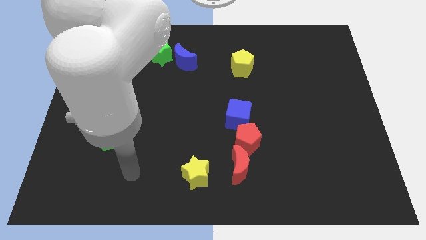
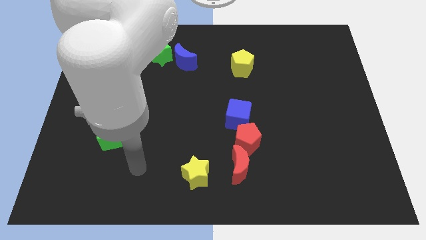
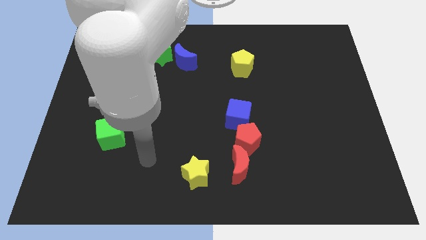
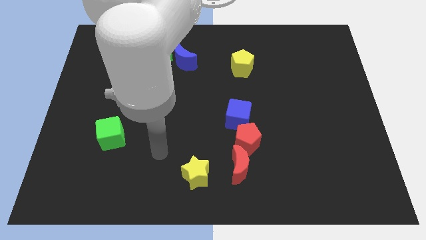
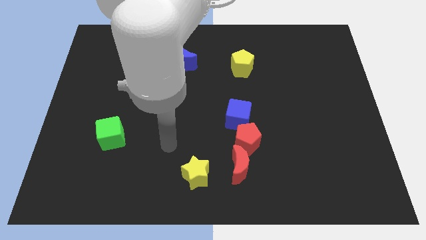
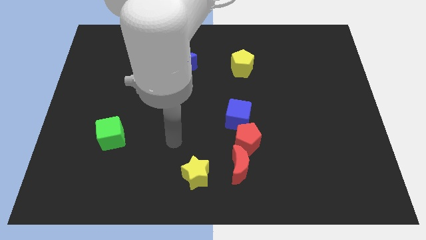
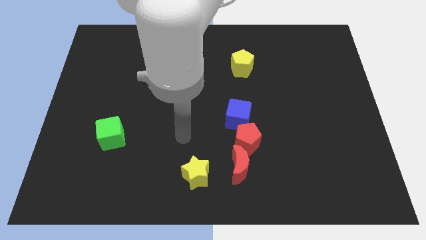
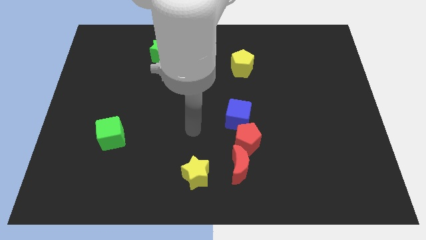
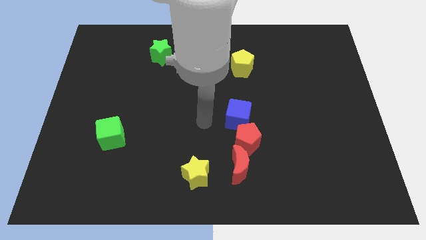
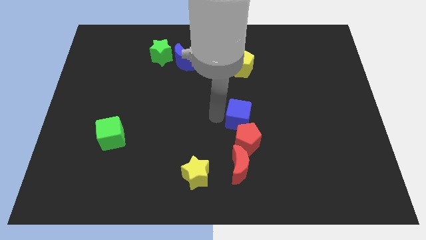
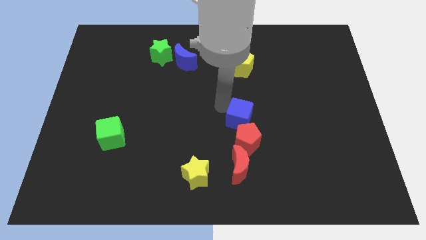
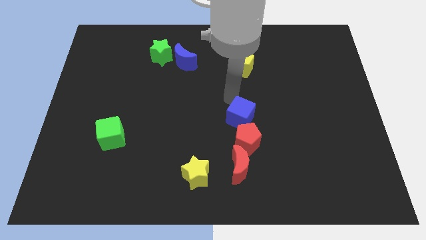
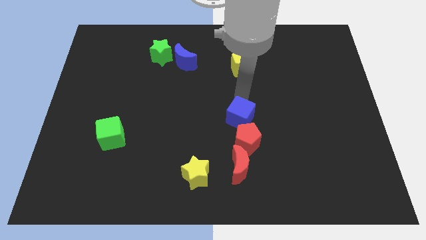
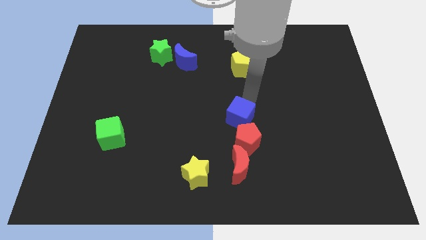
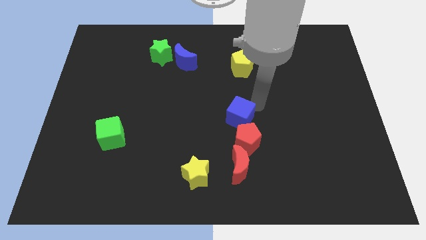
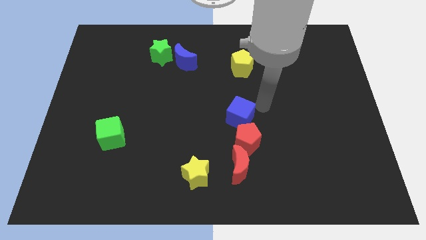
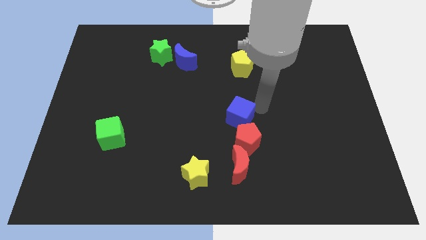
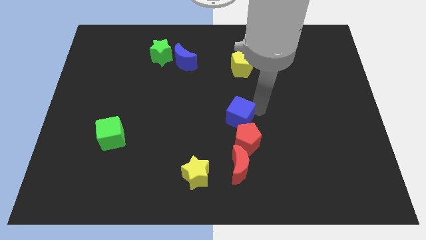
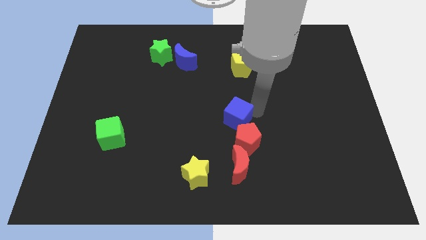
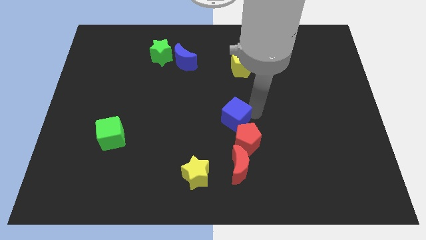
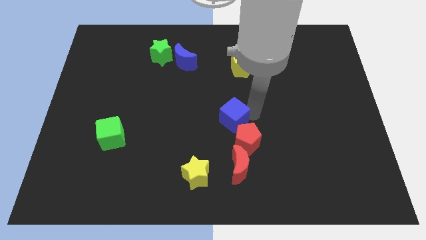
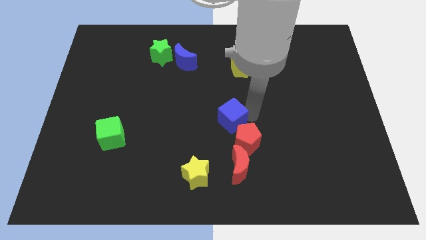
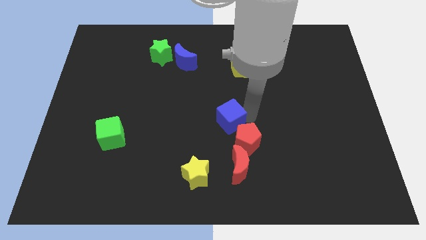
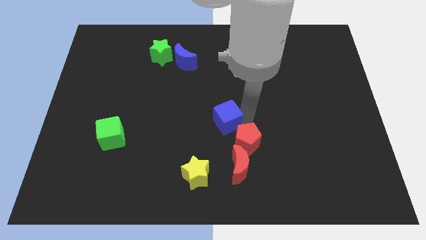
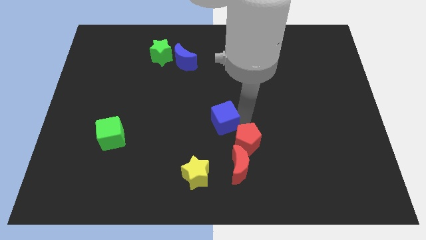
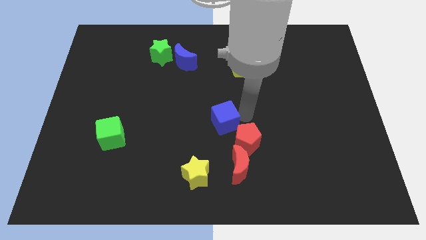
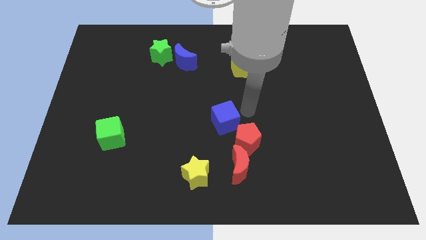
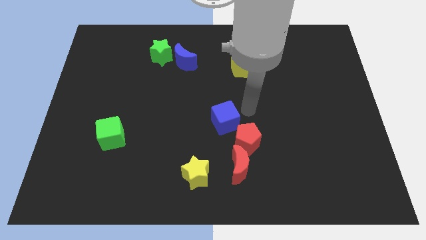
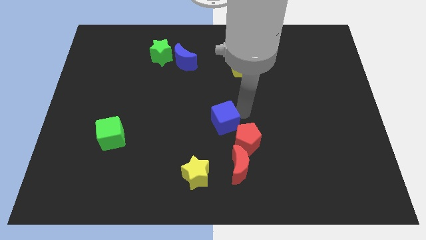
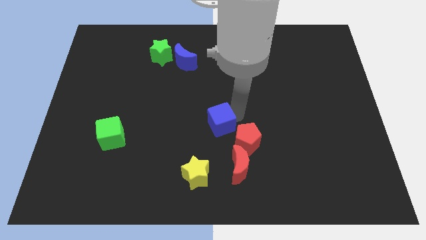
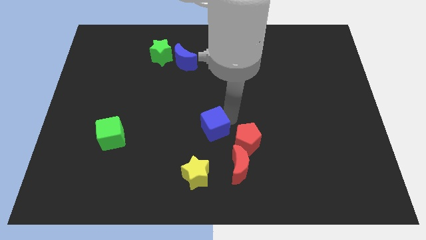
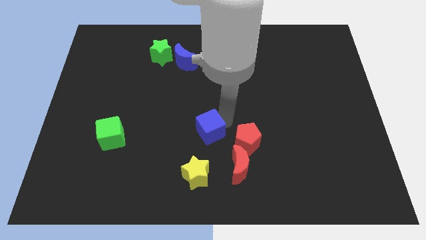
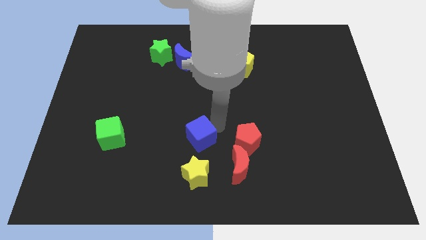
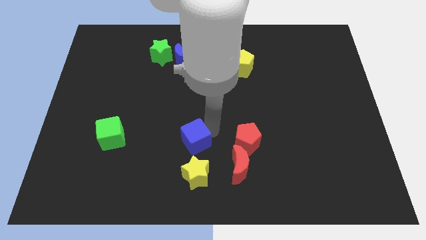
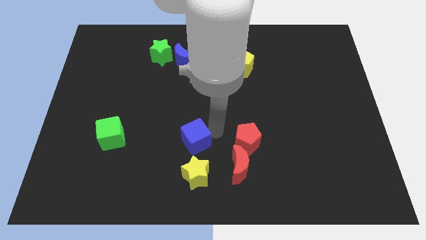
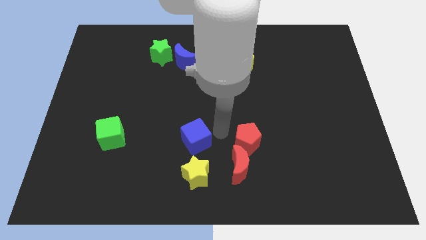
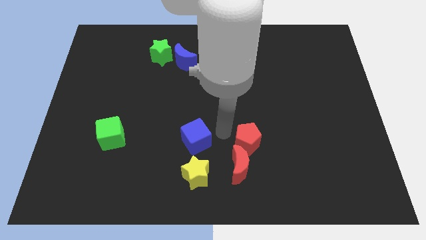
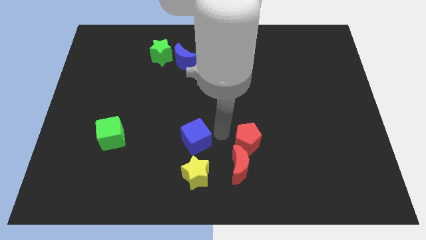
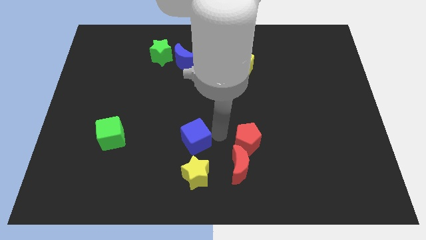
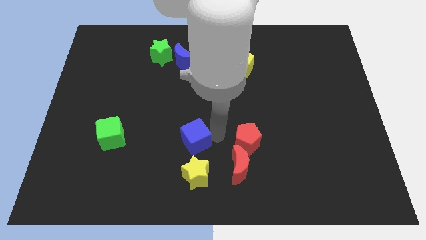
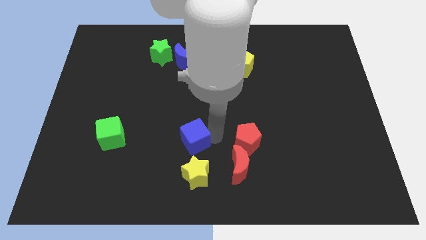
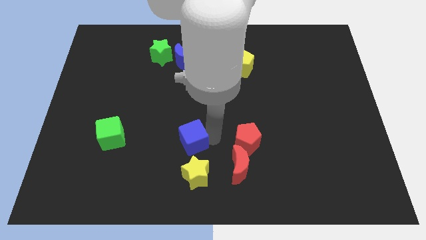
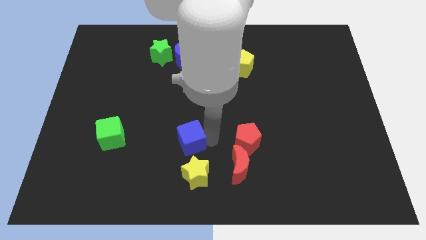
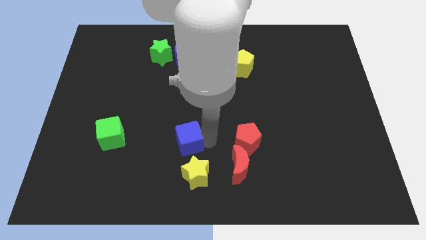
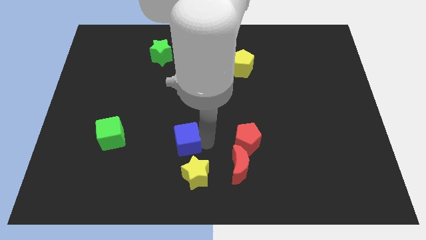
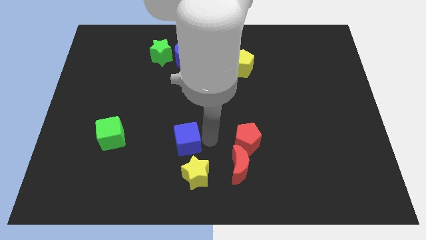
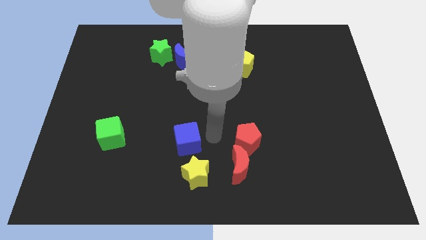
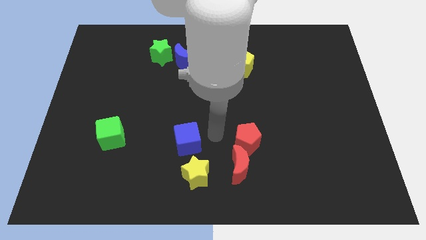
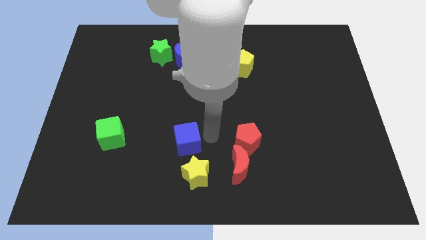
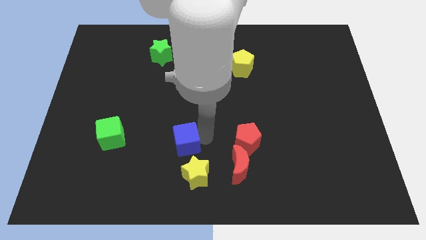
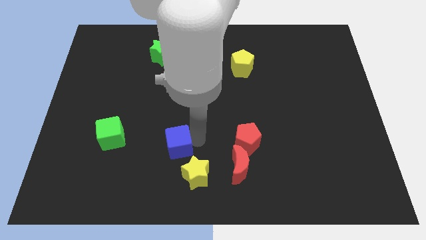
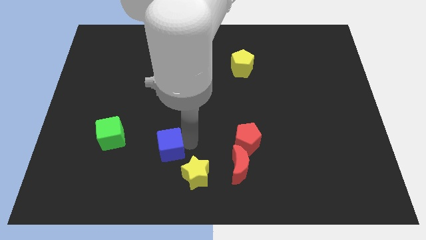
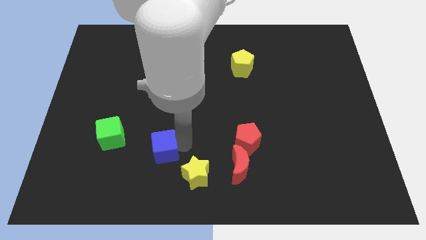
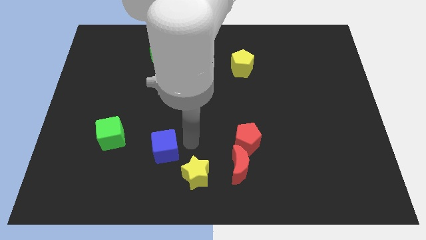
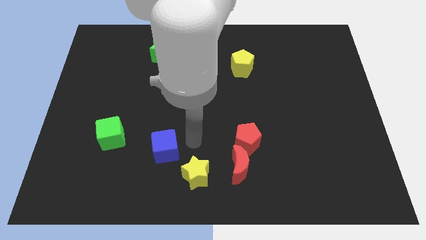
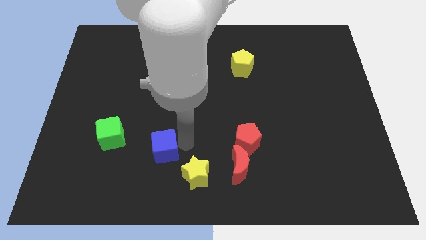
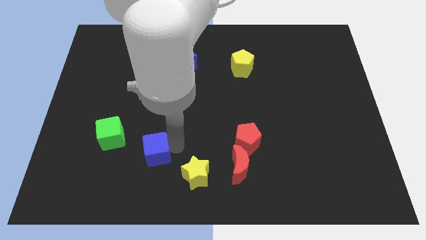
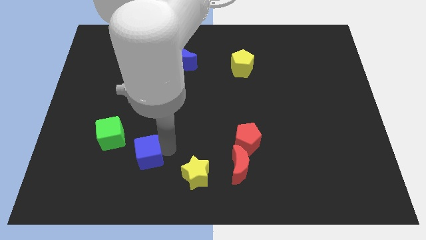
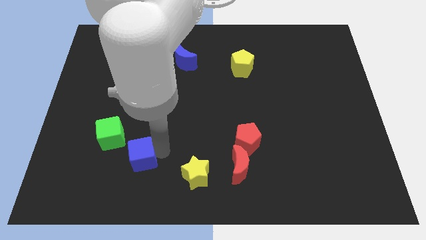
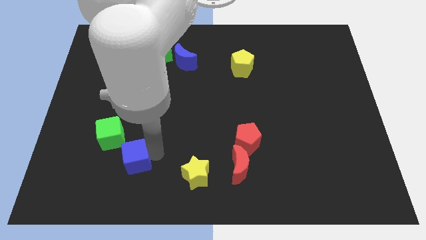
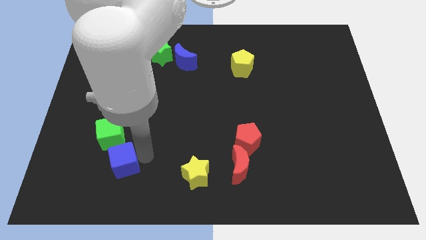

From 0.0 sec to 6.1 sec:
push the blue cube below the green cube
